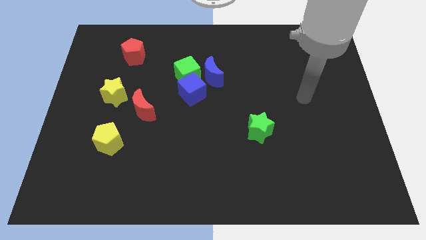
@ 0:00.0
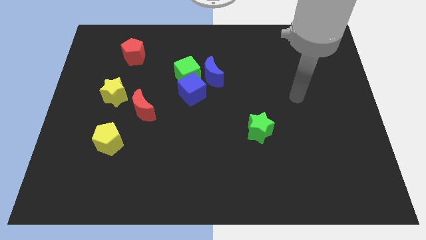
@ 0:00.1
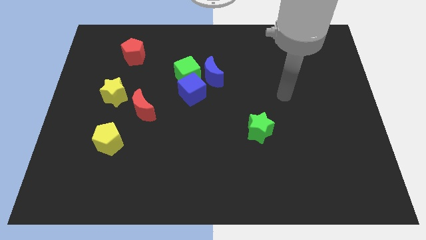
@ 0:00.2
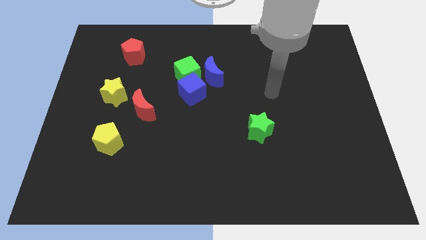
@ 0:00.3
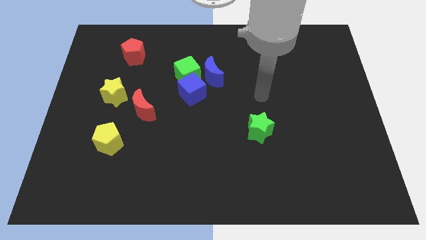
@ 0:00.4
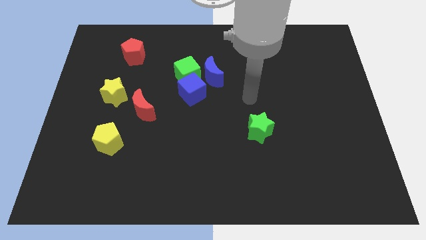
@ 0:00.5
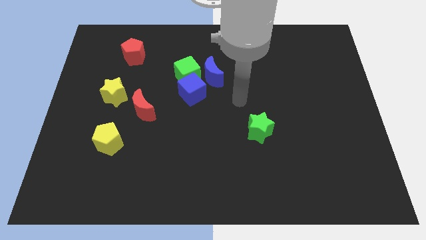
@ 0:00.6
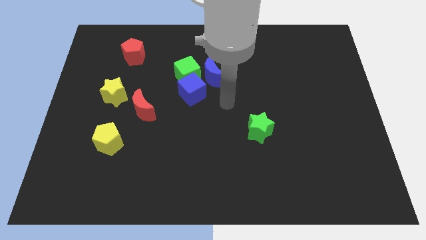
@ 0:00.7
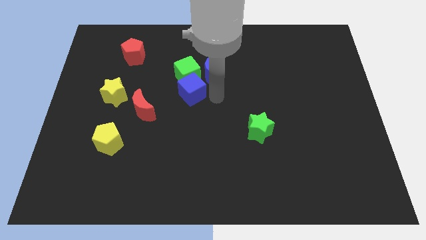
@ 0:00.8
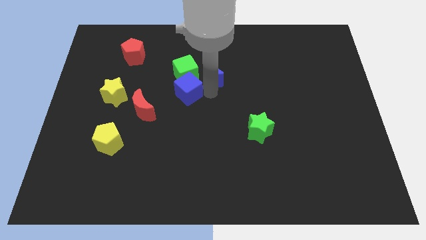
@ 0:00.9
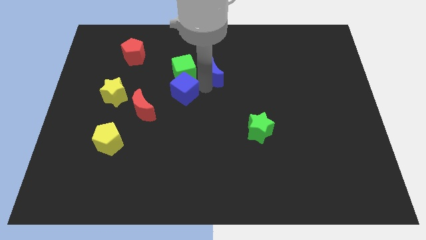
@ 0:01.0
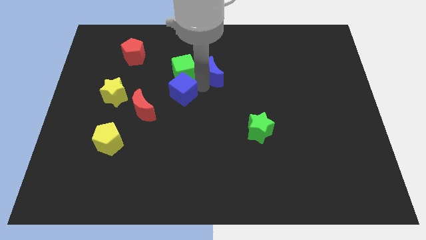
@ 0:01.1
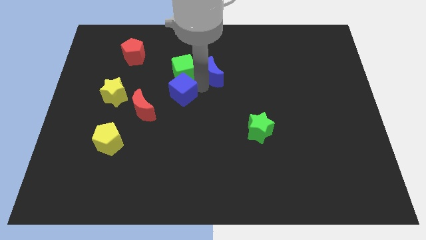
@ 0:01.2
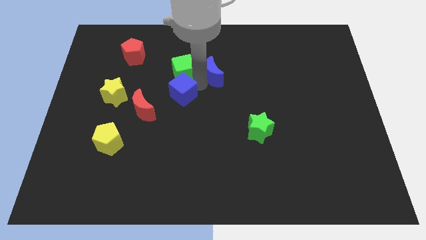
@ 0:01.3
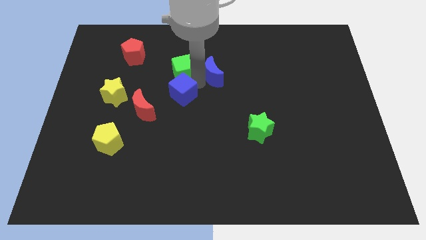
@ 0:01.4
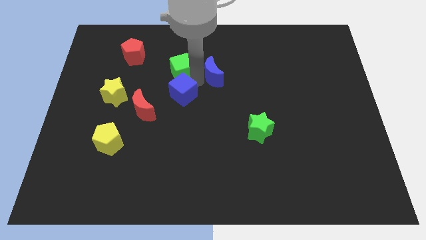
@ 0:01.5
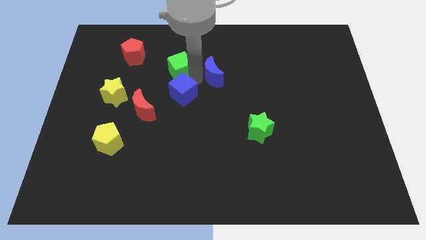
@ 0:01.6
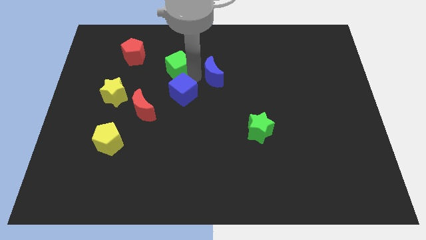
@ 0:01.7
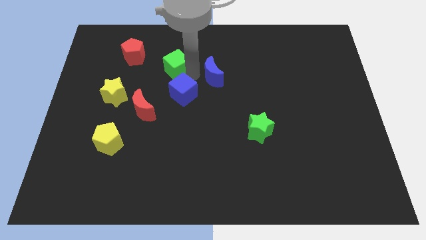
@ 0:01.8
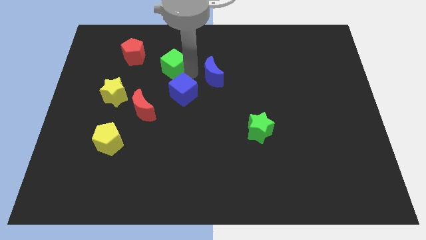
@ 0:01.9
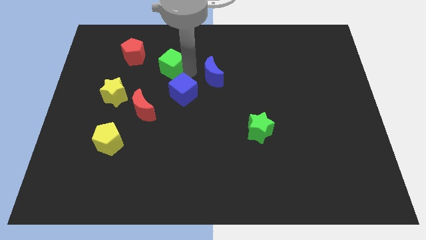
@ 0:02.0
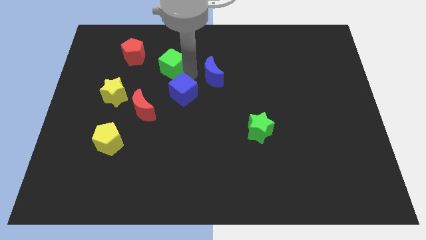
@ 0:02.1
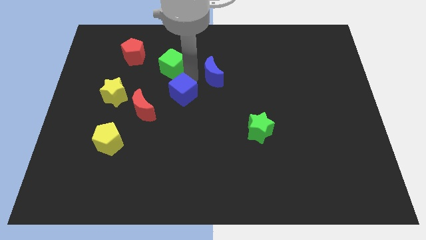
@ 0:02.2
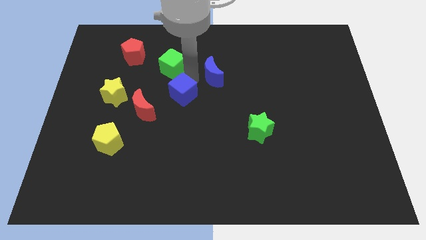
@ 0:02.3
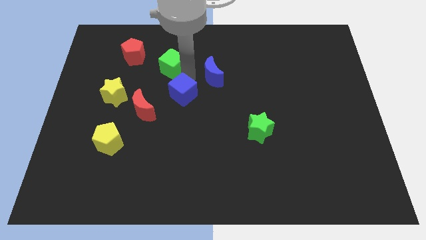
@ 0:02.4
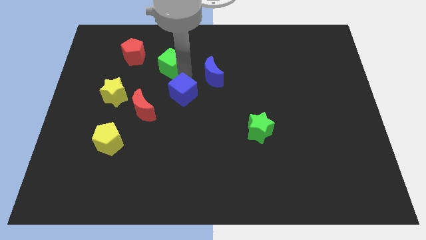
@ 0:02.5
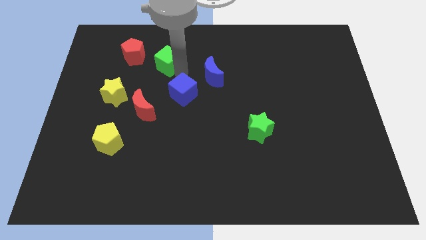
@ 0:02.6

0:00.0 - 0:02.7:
move the green cube away from the blue cube and blue moon

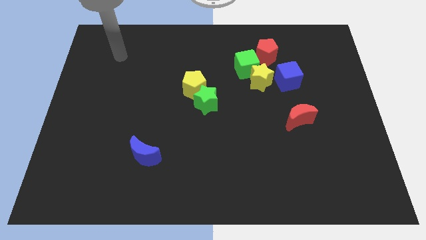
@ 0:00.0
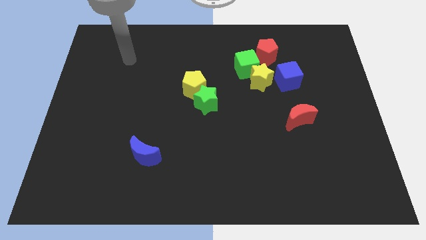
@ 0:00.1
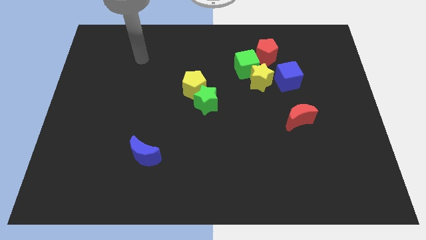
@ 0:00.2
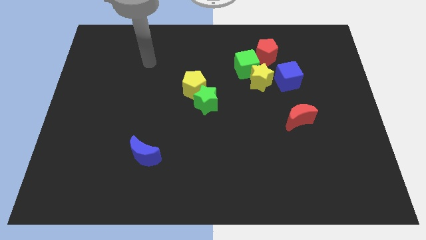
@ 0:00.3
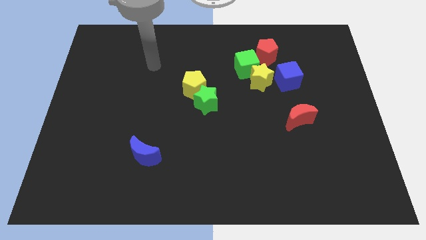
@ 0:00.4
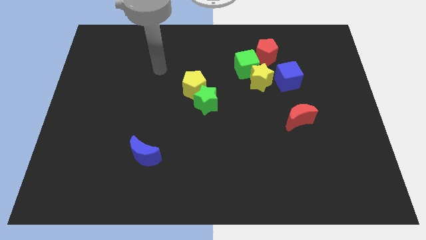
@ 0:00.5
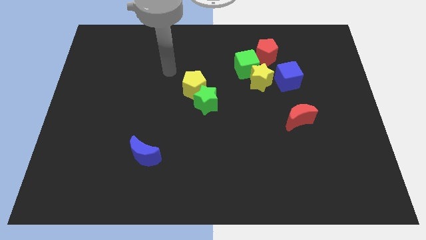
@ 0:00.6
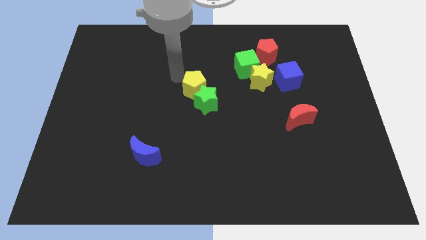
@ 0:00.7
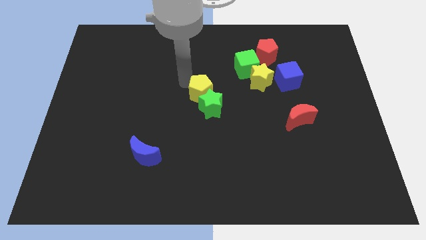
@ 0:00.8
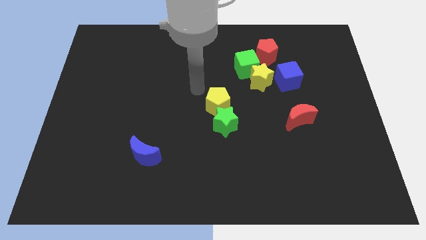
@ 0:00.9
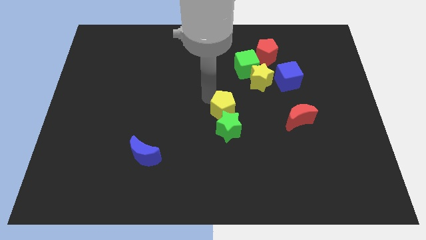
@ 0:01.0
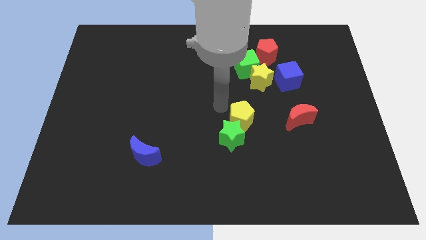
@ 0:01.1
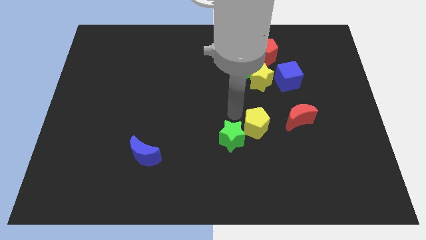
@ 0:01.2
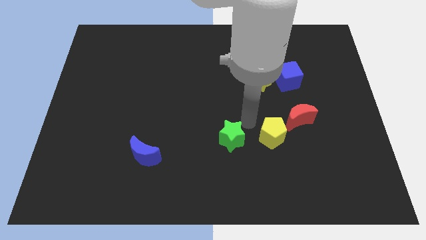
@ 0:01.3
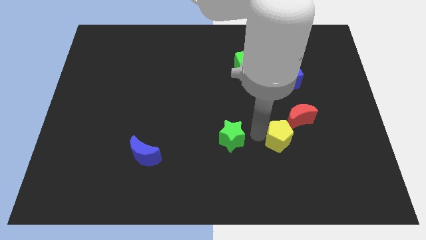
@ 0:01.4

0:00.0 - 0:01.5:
move the green star away from the yellow pentagon

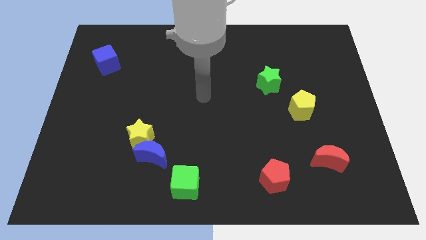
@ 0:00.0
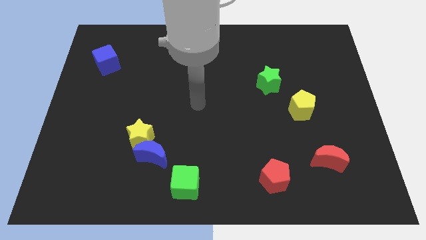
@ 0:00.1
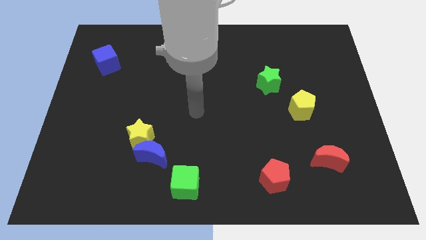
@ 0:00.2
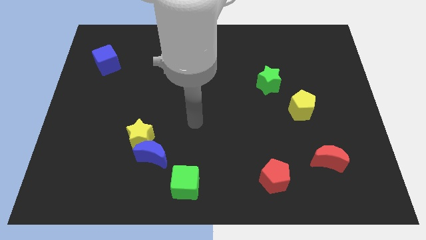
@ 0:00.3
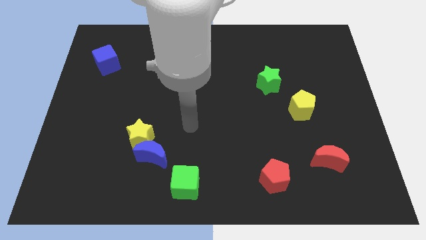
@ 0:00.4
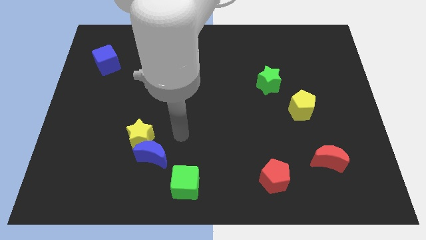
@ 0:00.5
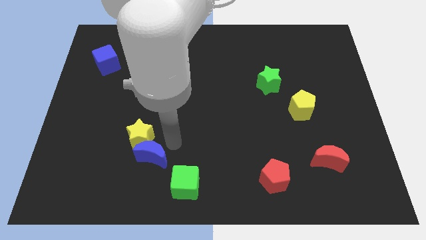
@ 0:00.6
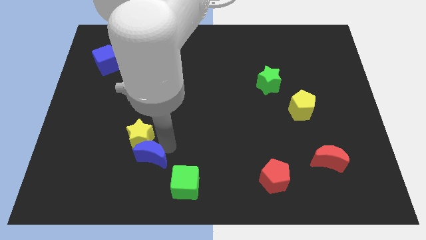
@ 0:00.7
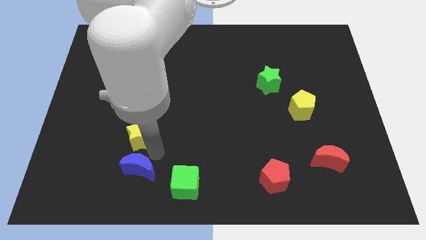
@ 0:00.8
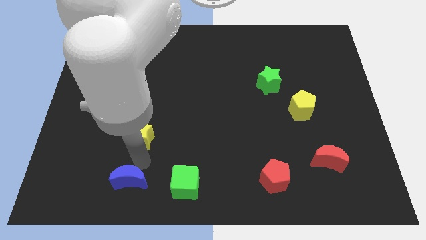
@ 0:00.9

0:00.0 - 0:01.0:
separate the yellow star from the blue moon

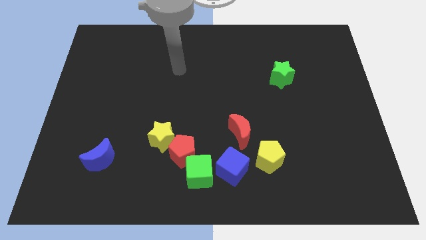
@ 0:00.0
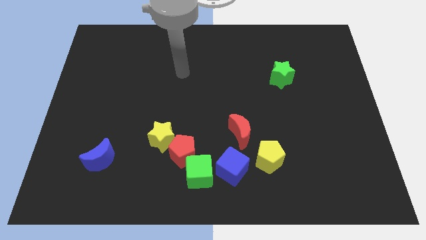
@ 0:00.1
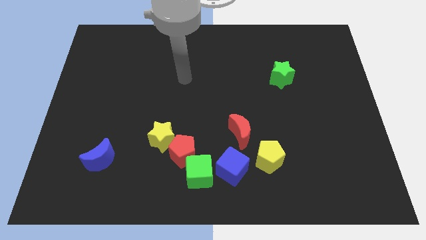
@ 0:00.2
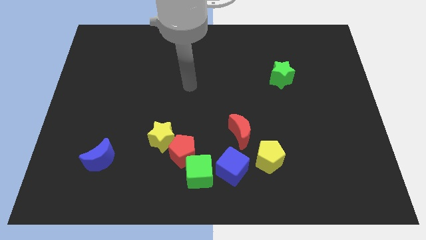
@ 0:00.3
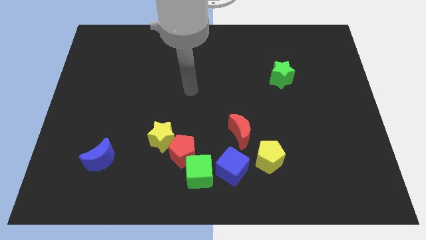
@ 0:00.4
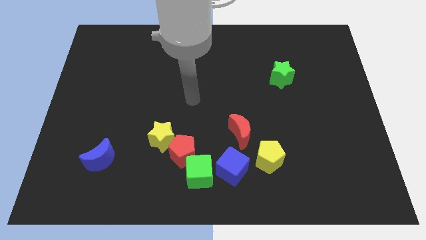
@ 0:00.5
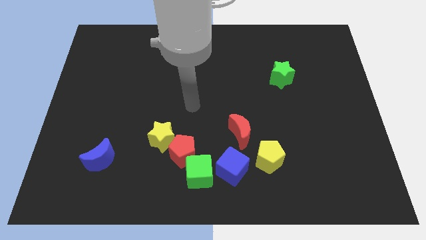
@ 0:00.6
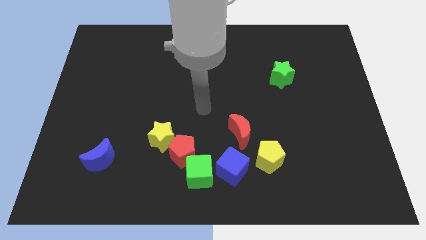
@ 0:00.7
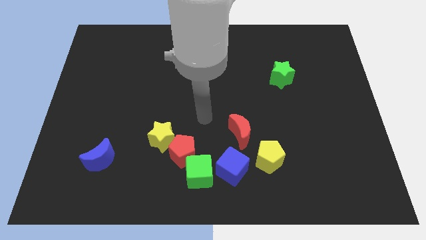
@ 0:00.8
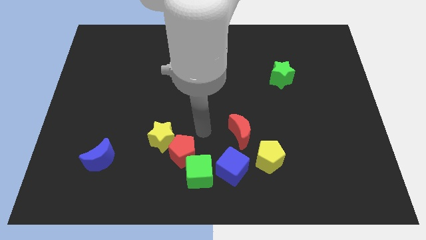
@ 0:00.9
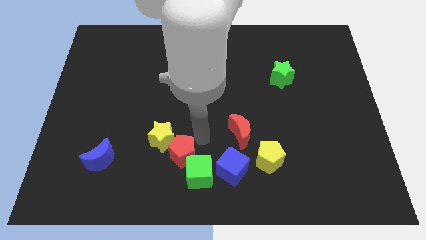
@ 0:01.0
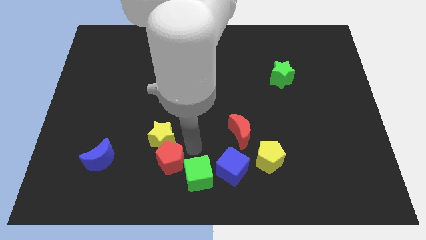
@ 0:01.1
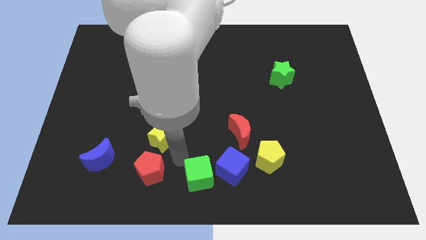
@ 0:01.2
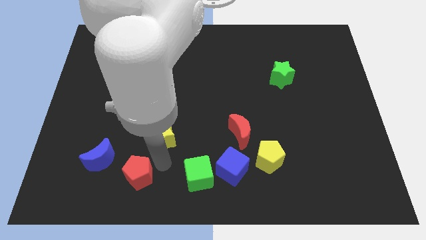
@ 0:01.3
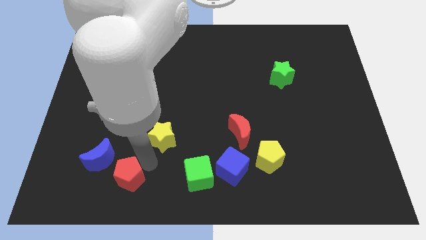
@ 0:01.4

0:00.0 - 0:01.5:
move the yellow star away from the red pentagon

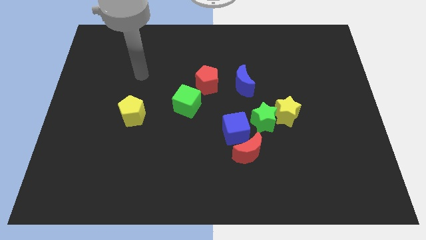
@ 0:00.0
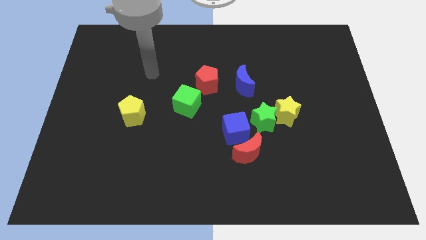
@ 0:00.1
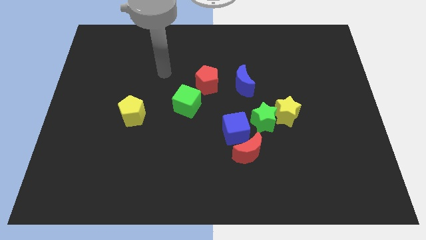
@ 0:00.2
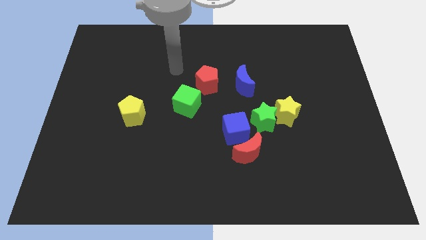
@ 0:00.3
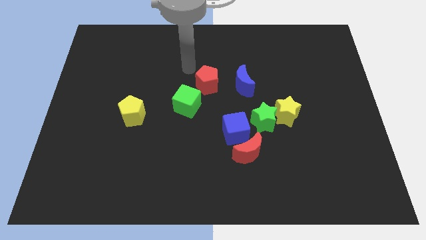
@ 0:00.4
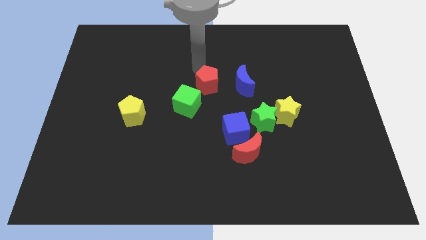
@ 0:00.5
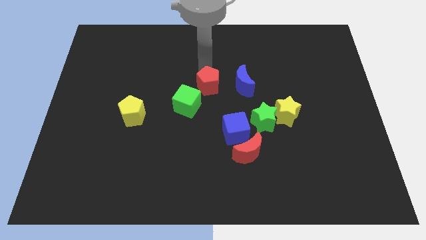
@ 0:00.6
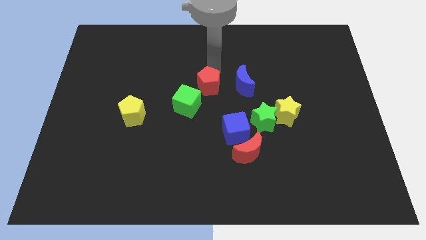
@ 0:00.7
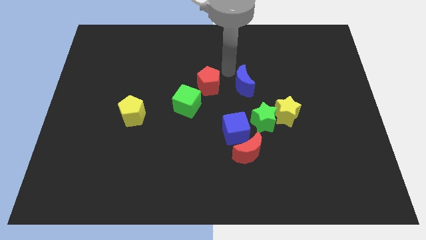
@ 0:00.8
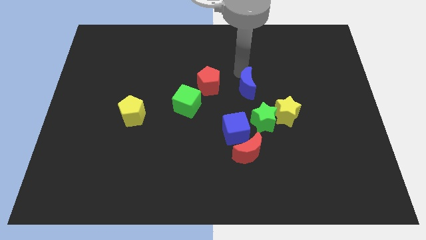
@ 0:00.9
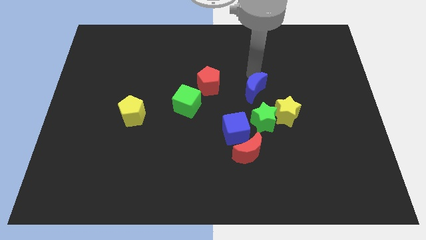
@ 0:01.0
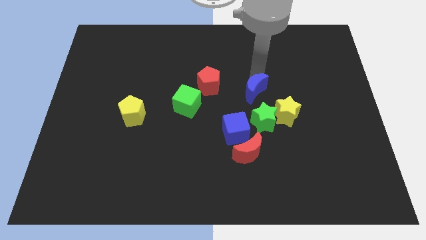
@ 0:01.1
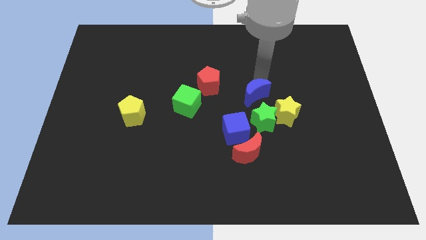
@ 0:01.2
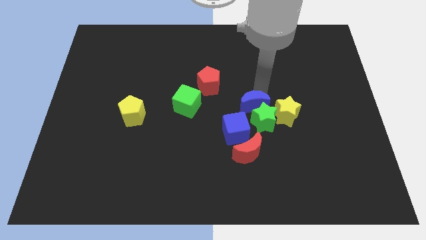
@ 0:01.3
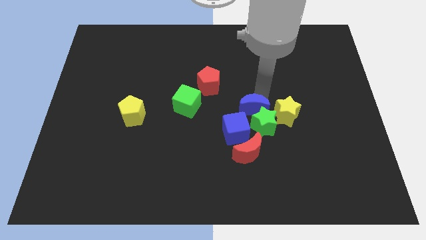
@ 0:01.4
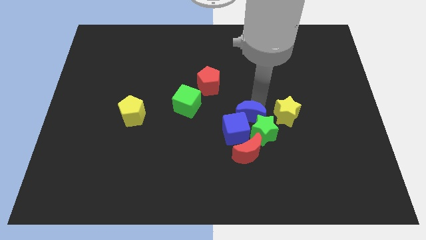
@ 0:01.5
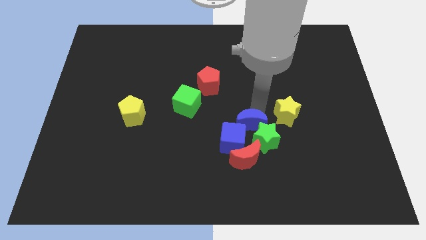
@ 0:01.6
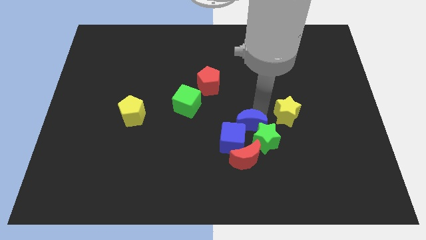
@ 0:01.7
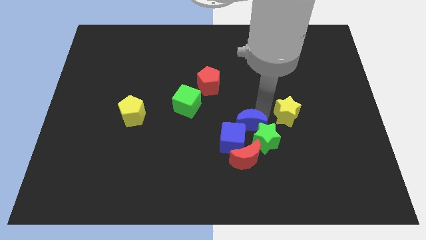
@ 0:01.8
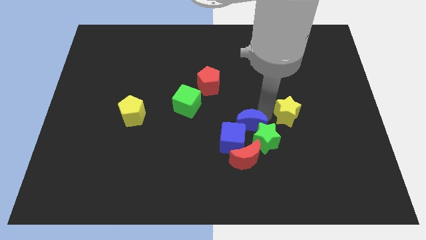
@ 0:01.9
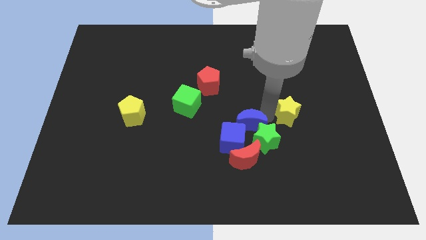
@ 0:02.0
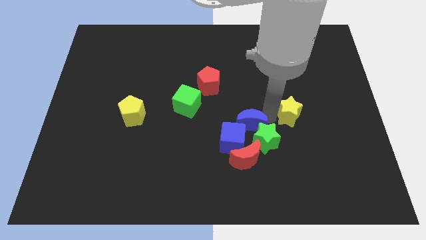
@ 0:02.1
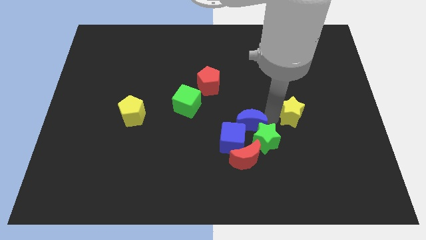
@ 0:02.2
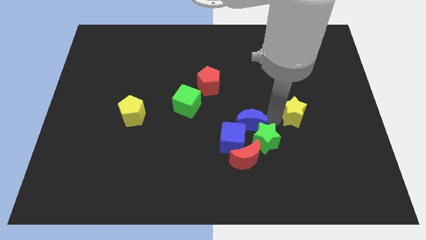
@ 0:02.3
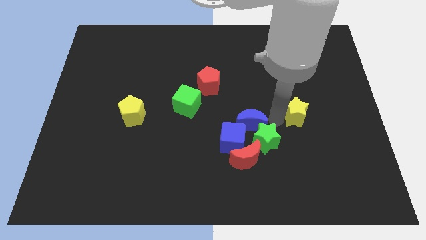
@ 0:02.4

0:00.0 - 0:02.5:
move the yellow star away from the green star
